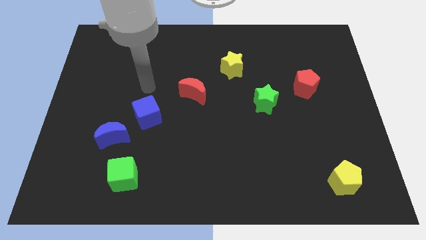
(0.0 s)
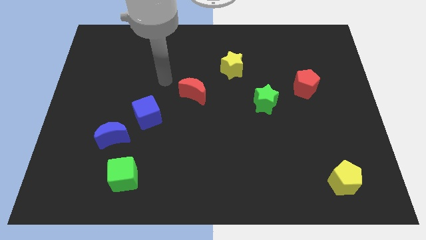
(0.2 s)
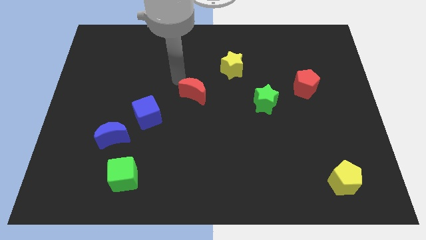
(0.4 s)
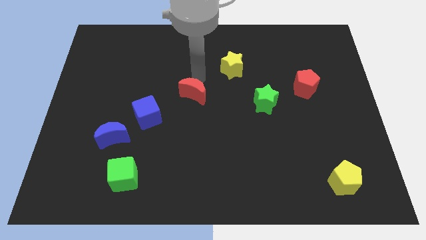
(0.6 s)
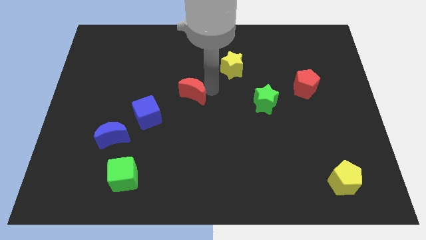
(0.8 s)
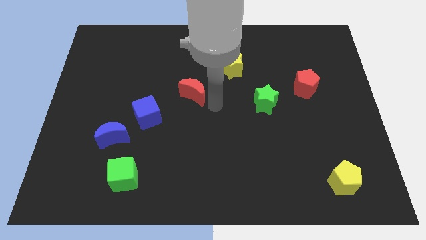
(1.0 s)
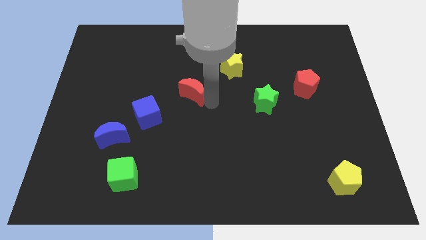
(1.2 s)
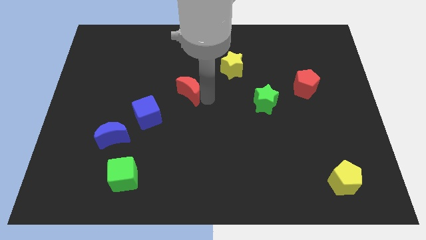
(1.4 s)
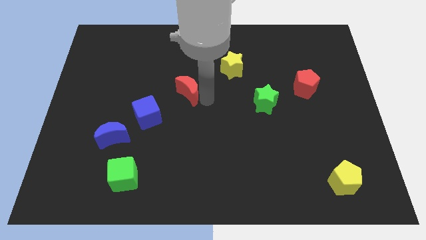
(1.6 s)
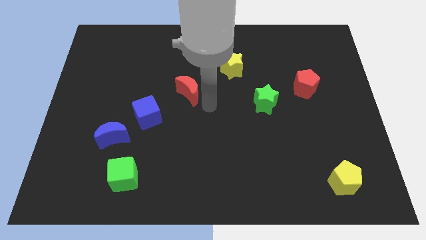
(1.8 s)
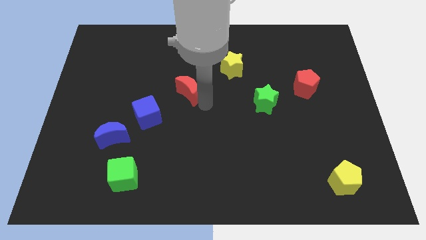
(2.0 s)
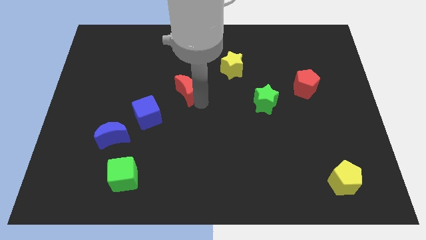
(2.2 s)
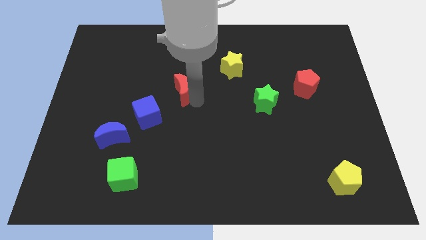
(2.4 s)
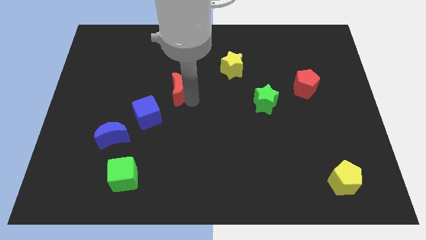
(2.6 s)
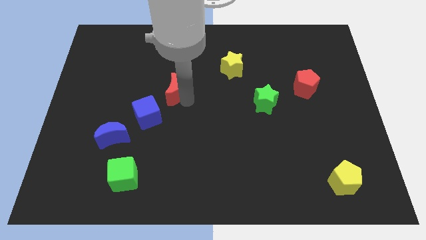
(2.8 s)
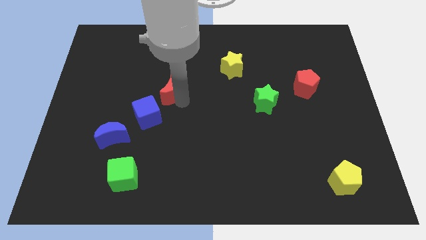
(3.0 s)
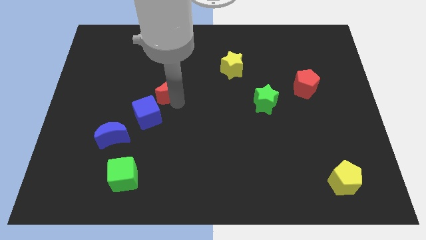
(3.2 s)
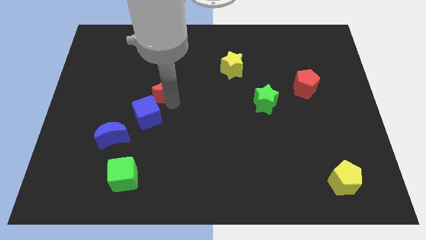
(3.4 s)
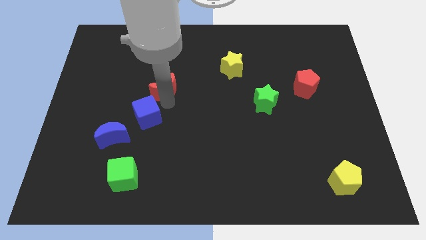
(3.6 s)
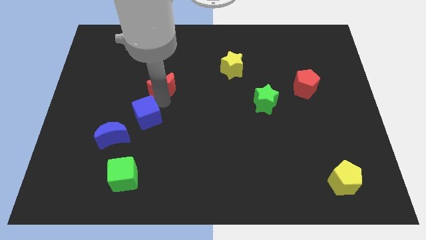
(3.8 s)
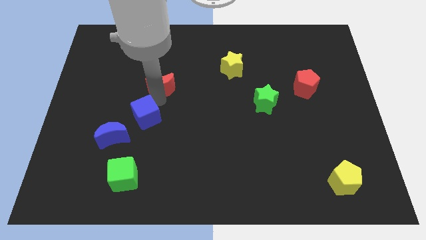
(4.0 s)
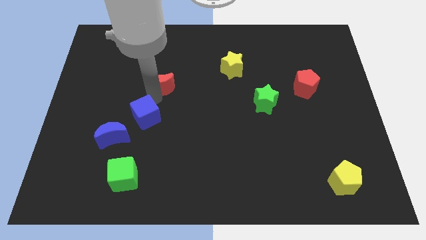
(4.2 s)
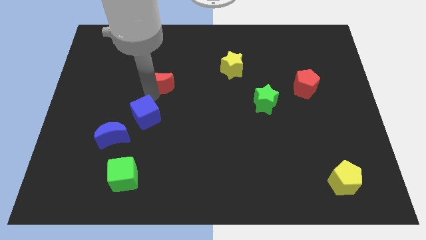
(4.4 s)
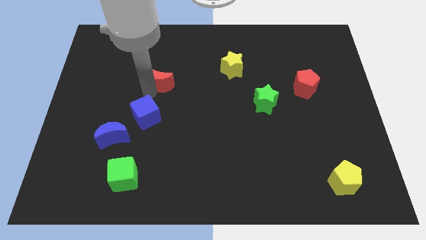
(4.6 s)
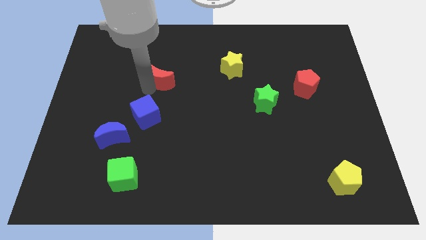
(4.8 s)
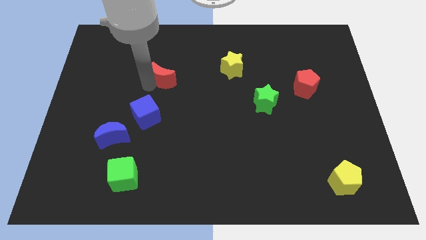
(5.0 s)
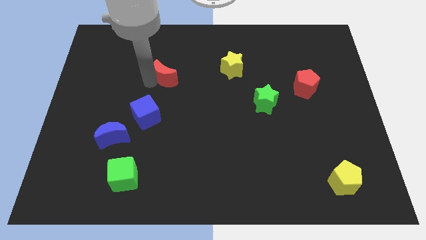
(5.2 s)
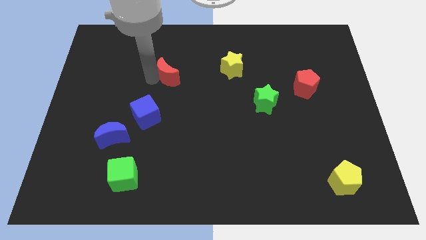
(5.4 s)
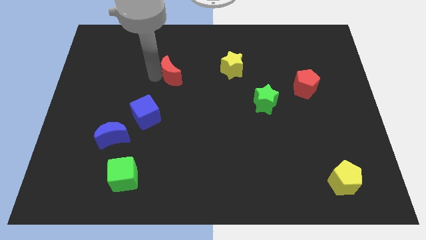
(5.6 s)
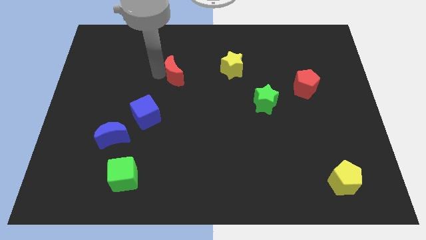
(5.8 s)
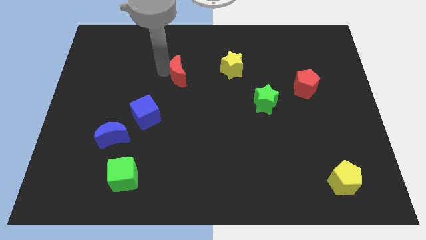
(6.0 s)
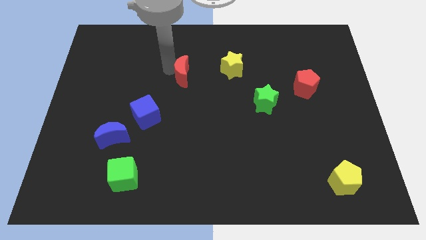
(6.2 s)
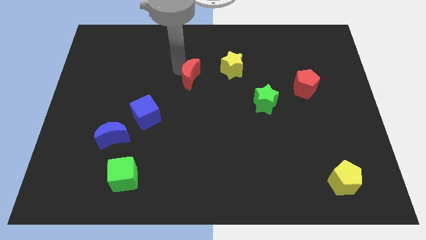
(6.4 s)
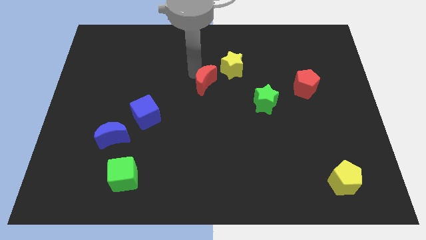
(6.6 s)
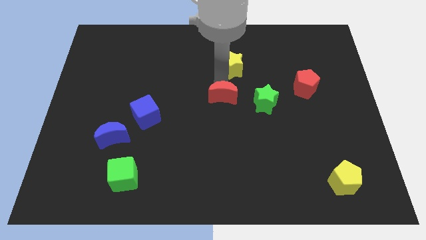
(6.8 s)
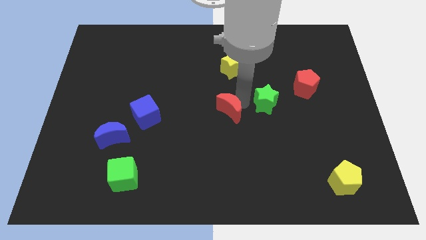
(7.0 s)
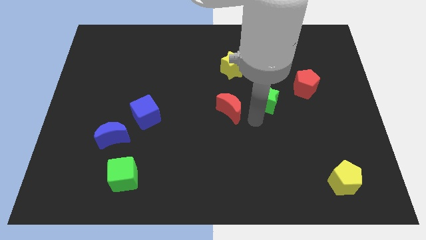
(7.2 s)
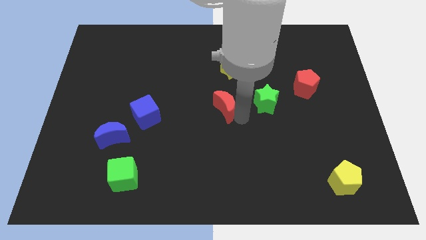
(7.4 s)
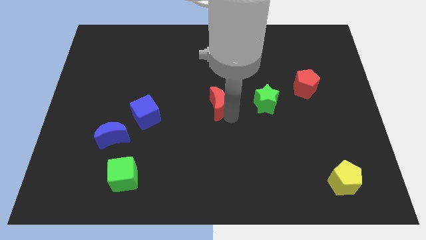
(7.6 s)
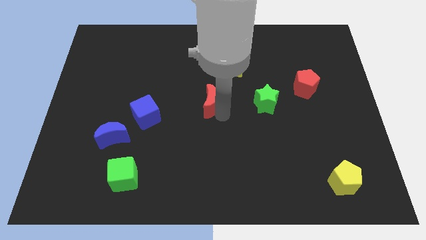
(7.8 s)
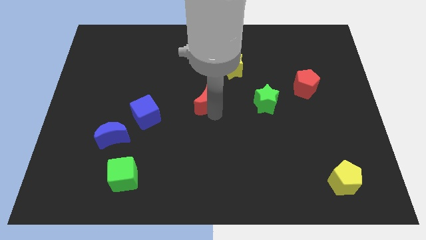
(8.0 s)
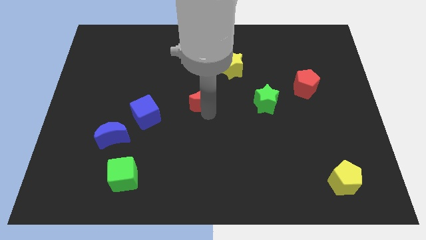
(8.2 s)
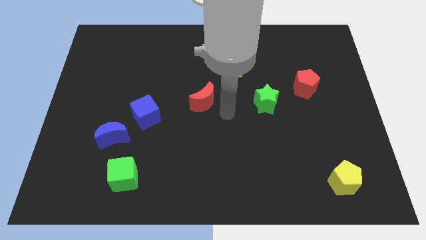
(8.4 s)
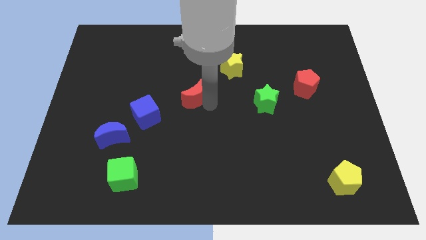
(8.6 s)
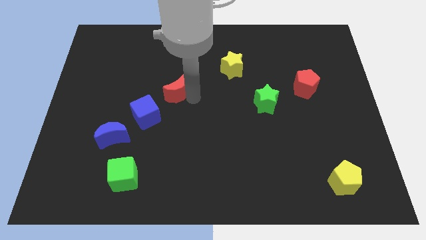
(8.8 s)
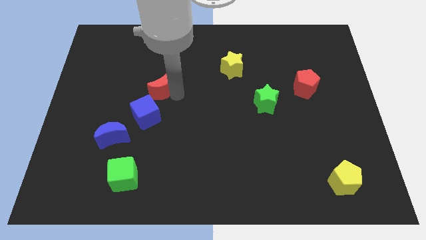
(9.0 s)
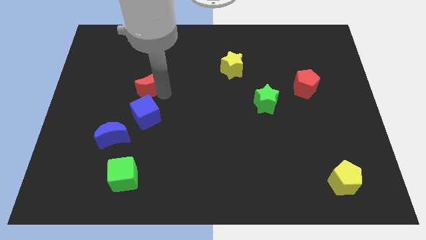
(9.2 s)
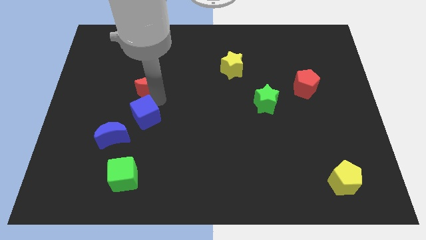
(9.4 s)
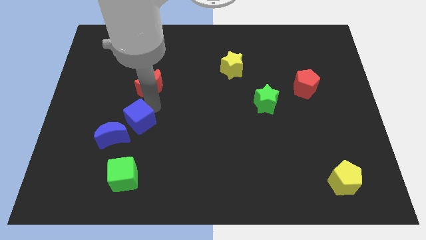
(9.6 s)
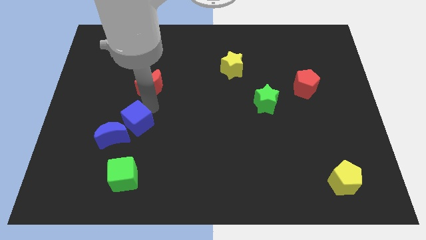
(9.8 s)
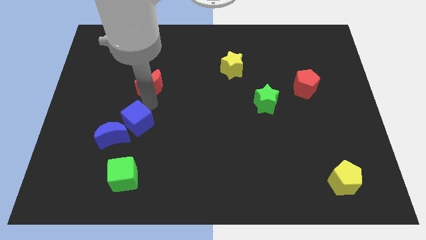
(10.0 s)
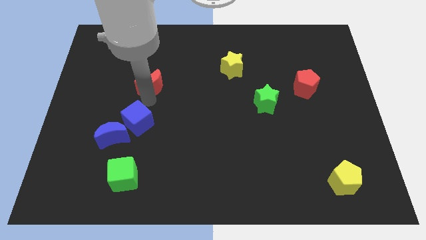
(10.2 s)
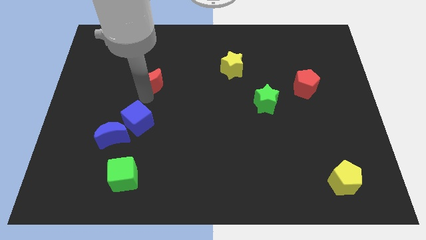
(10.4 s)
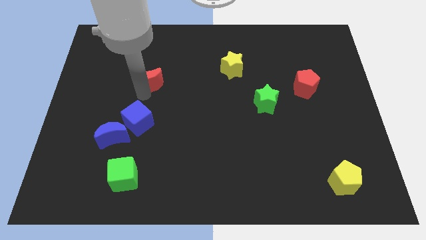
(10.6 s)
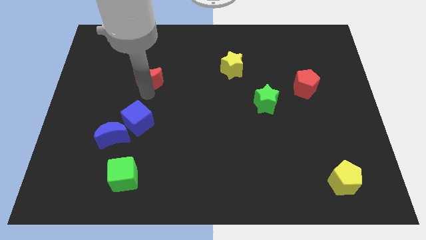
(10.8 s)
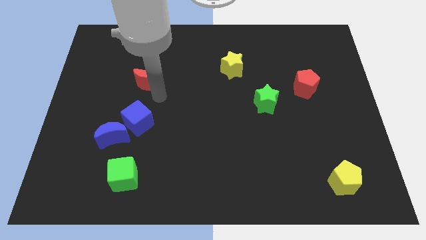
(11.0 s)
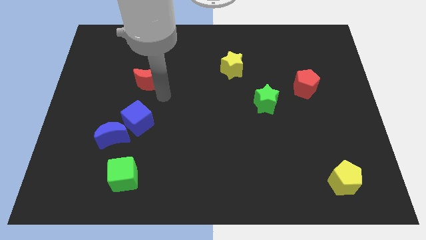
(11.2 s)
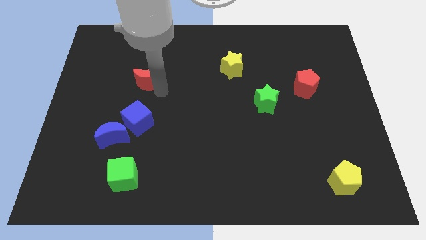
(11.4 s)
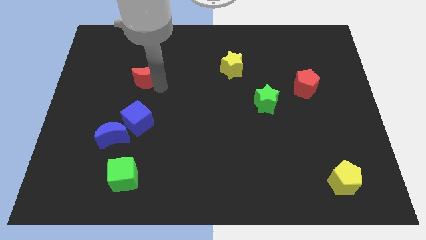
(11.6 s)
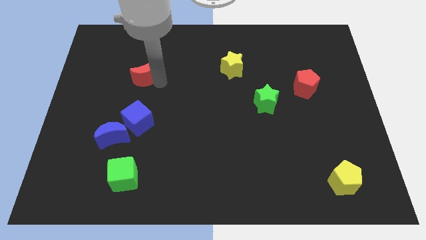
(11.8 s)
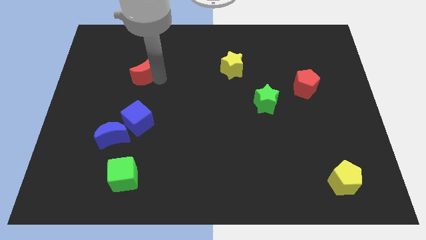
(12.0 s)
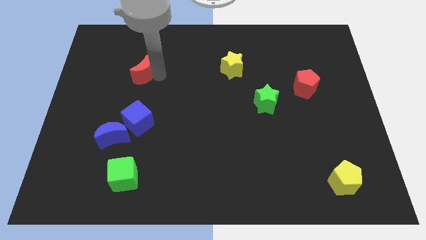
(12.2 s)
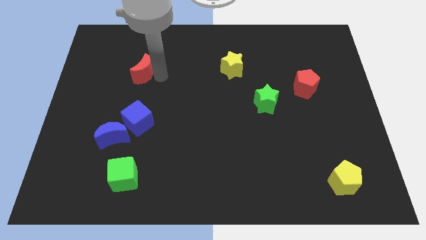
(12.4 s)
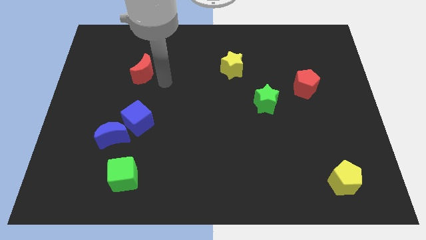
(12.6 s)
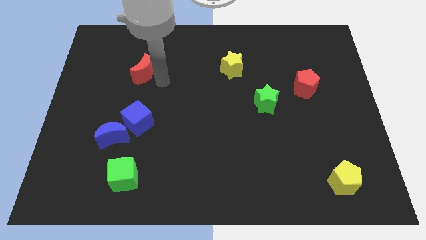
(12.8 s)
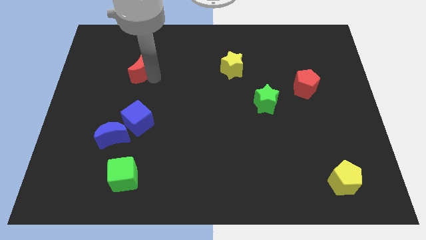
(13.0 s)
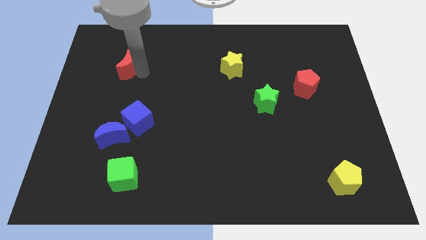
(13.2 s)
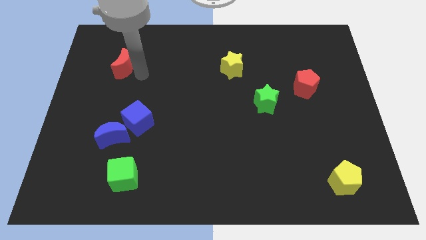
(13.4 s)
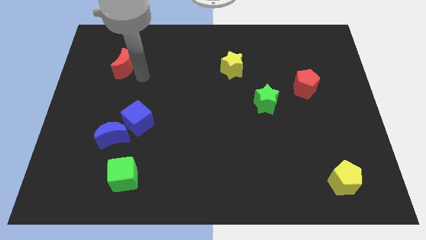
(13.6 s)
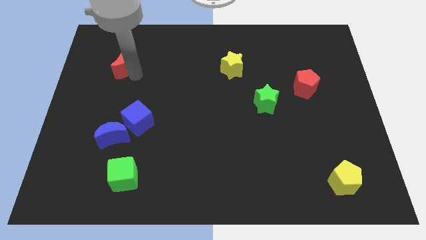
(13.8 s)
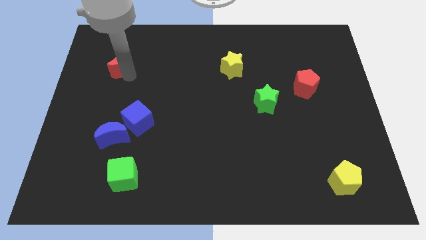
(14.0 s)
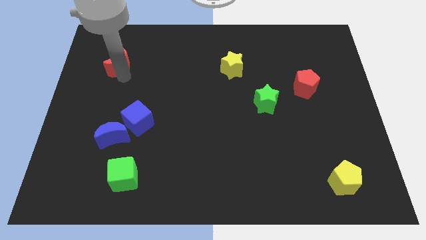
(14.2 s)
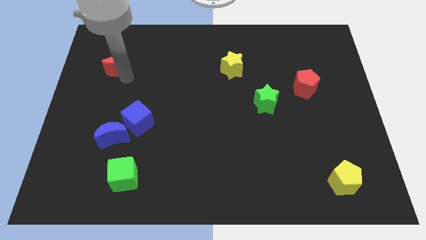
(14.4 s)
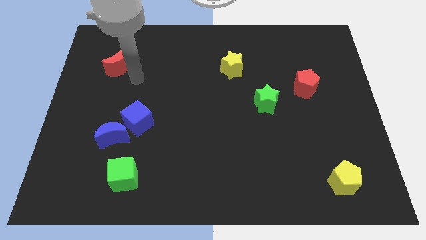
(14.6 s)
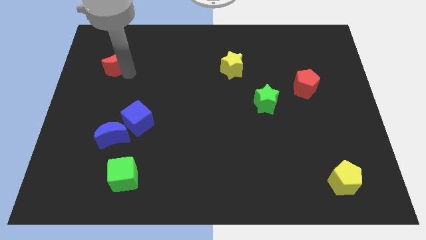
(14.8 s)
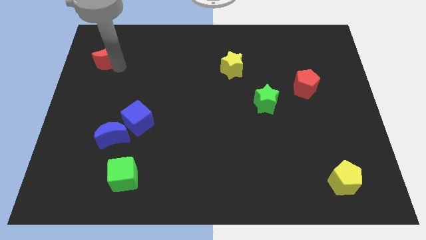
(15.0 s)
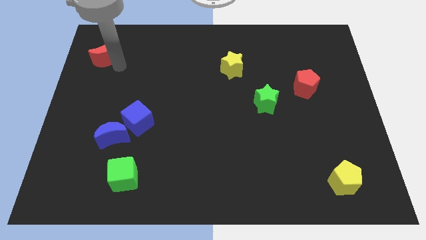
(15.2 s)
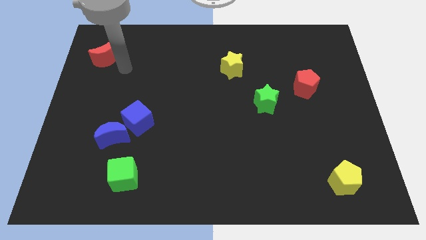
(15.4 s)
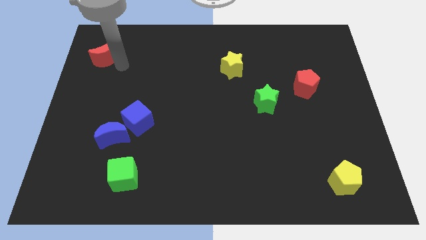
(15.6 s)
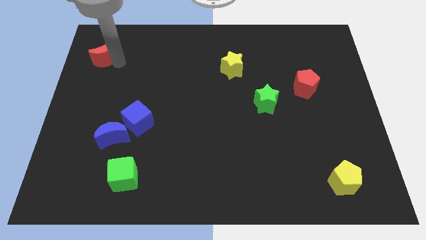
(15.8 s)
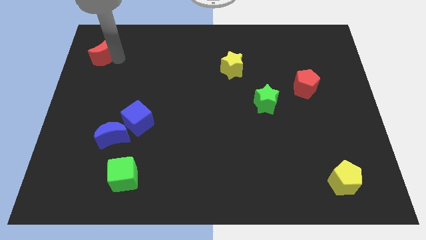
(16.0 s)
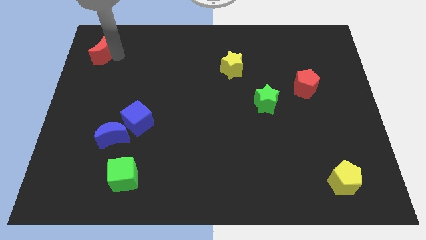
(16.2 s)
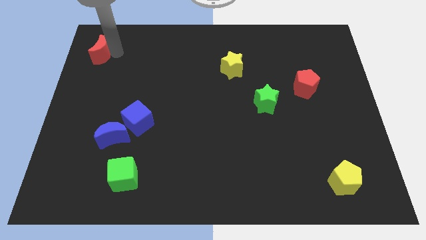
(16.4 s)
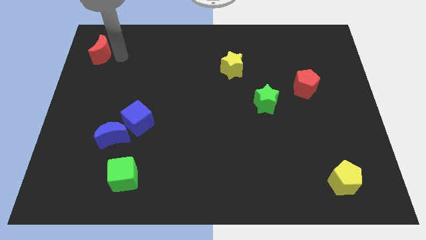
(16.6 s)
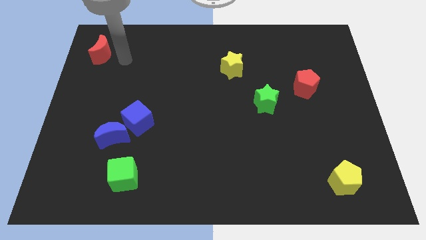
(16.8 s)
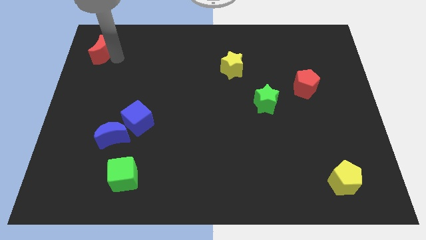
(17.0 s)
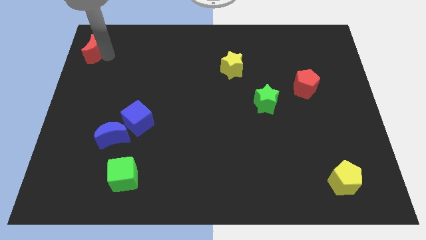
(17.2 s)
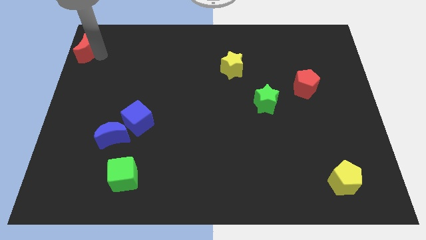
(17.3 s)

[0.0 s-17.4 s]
push the red moon to the top left
